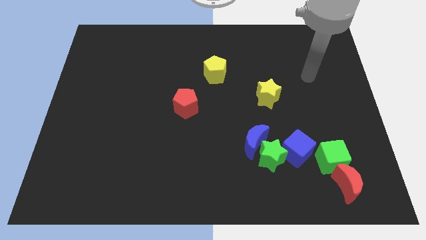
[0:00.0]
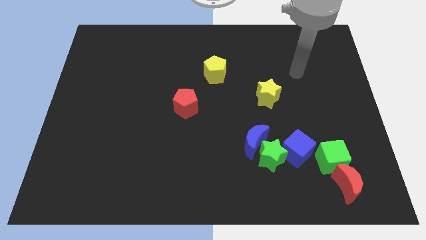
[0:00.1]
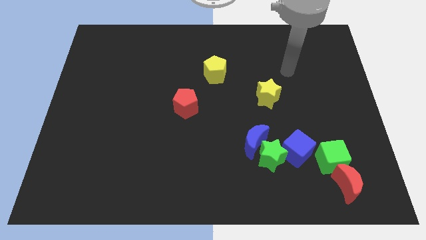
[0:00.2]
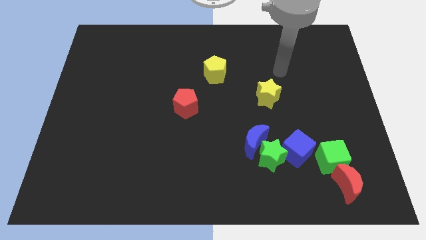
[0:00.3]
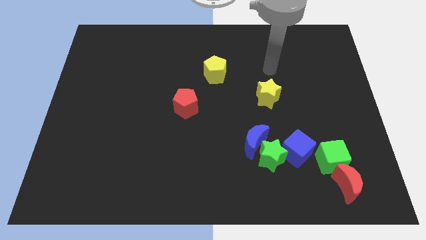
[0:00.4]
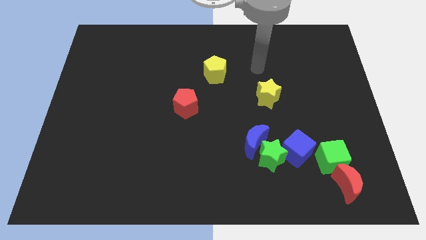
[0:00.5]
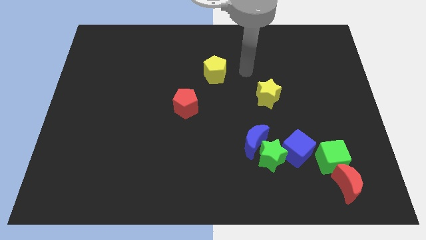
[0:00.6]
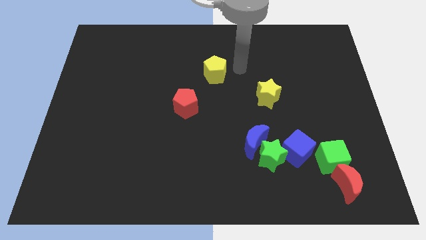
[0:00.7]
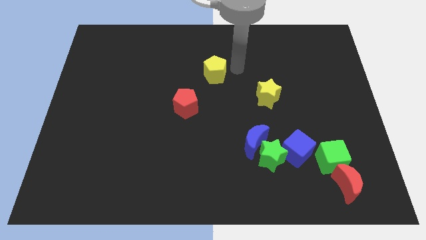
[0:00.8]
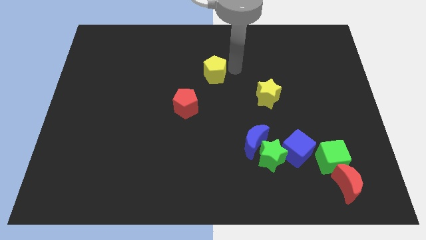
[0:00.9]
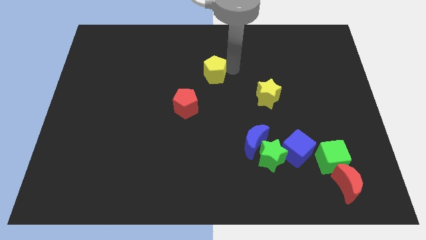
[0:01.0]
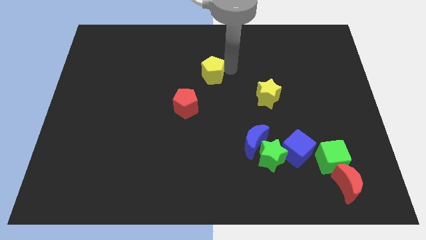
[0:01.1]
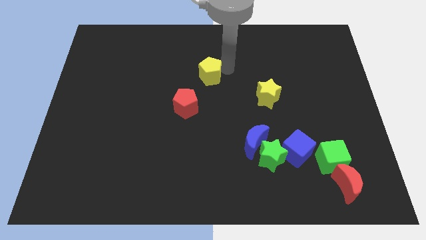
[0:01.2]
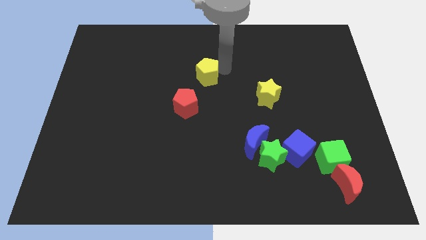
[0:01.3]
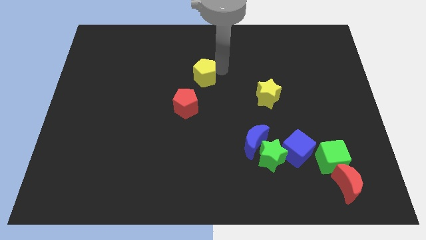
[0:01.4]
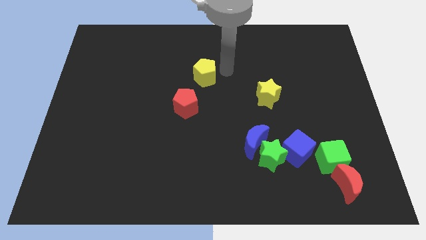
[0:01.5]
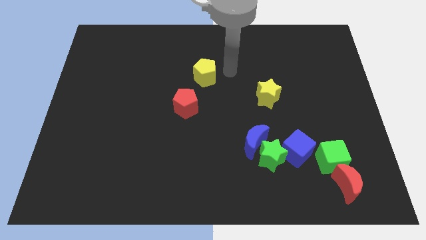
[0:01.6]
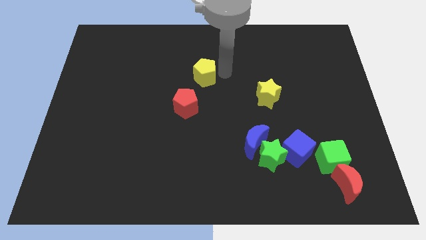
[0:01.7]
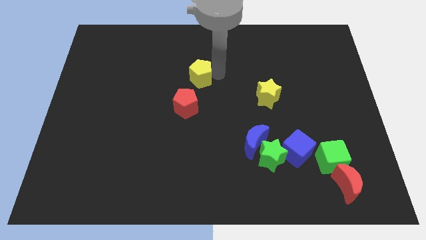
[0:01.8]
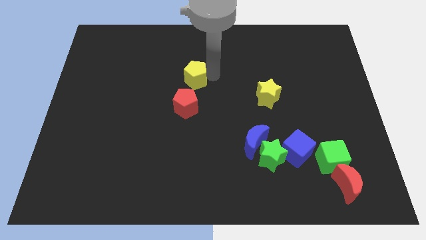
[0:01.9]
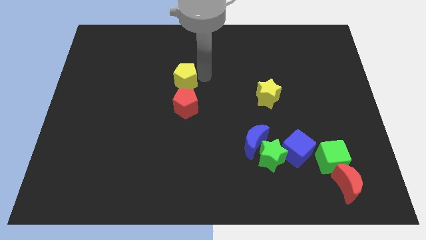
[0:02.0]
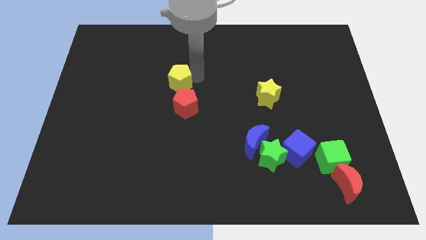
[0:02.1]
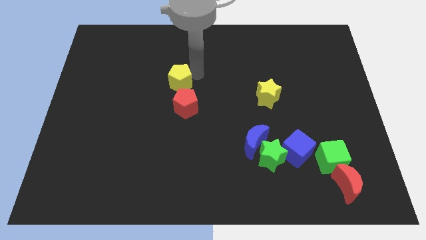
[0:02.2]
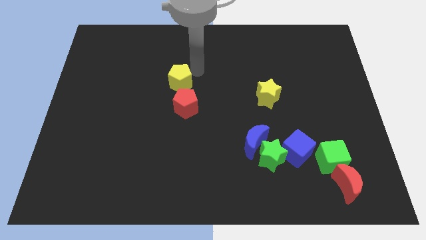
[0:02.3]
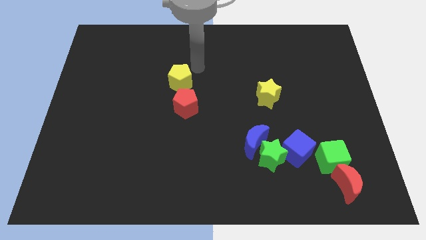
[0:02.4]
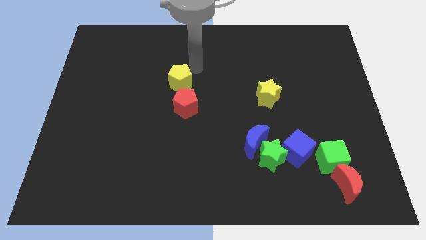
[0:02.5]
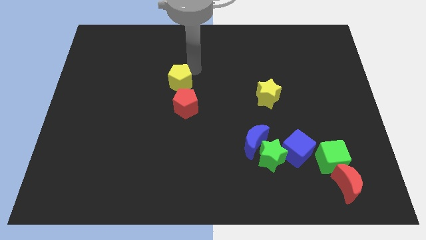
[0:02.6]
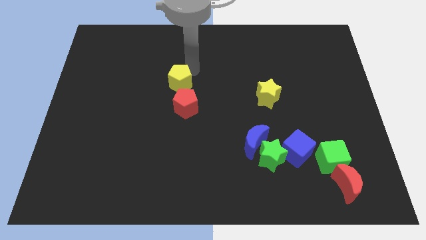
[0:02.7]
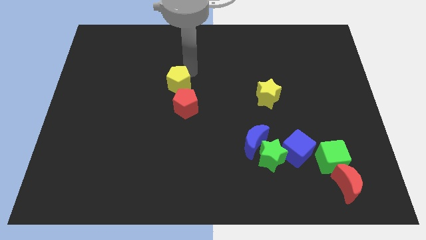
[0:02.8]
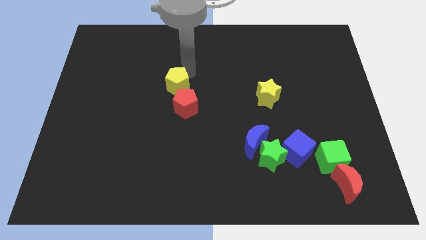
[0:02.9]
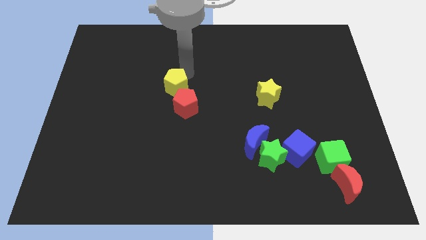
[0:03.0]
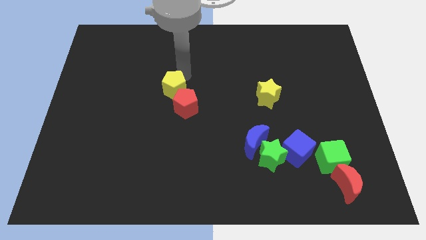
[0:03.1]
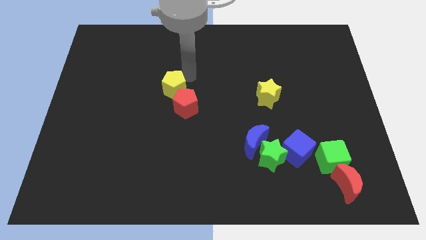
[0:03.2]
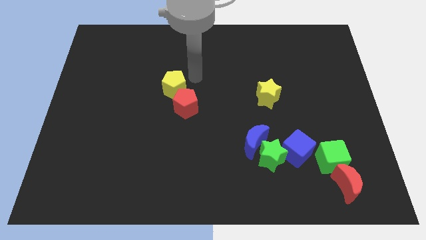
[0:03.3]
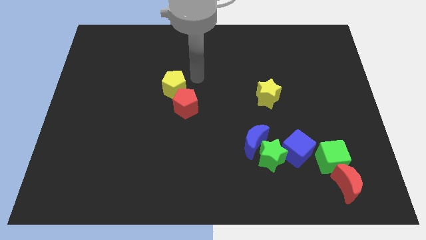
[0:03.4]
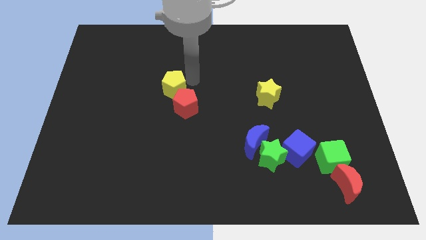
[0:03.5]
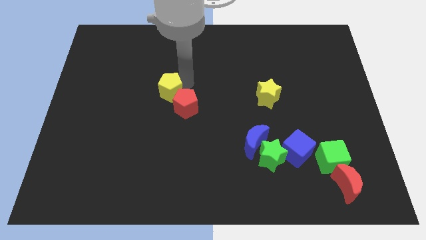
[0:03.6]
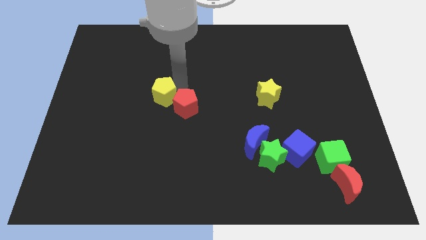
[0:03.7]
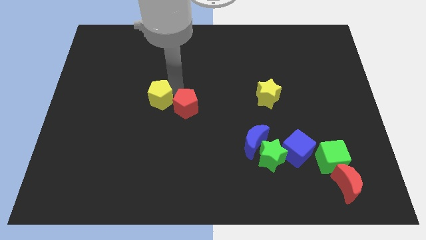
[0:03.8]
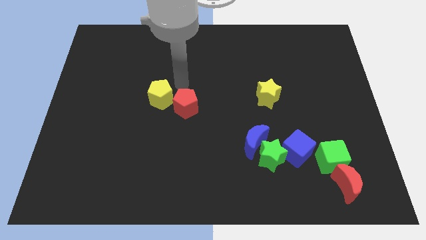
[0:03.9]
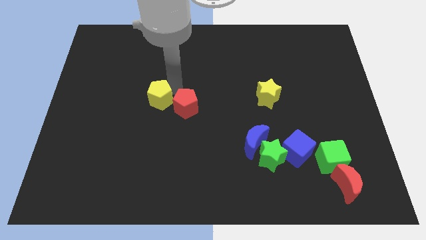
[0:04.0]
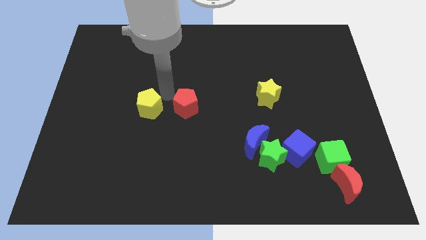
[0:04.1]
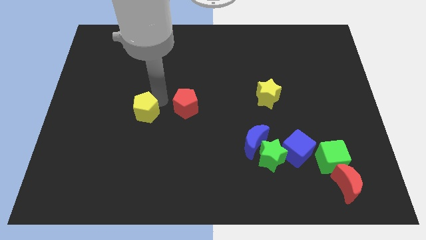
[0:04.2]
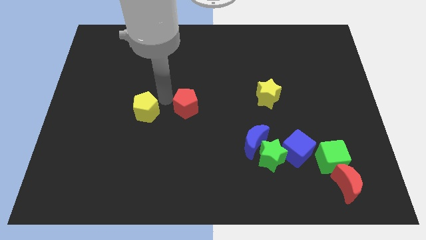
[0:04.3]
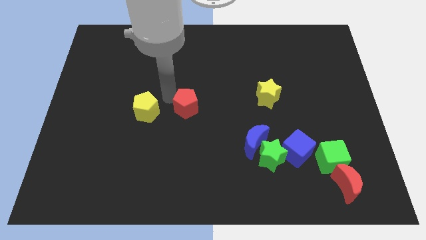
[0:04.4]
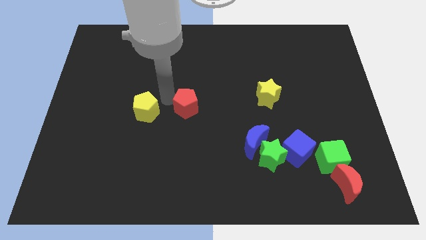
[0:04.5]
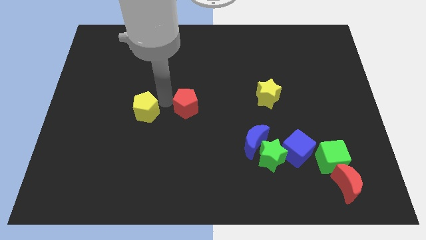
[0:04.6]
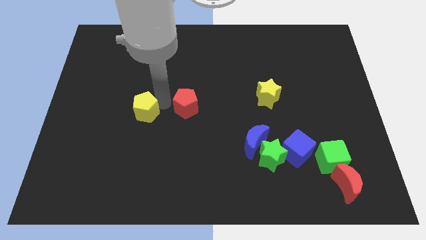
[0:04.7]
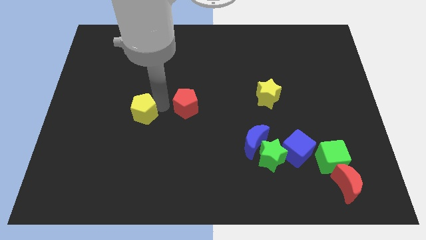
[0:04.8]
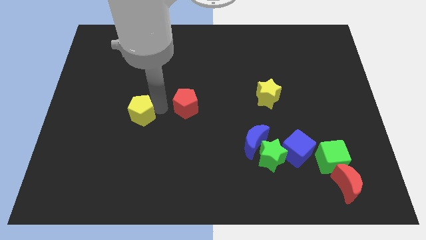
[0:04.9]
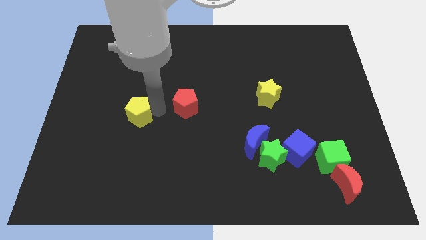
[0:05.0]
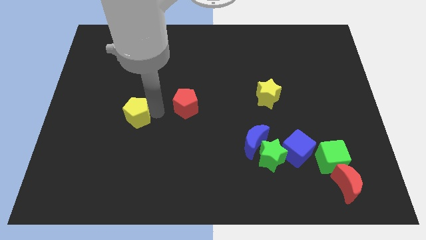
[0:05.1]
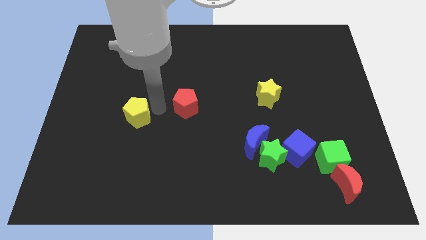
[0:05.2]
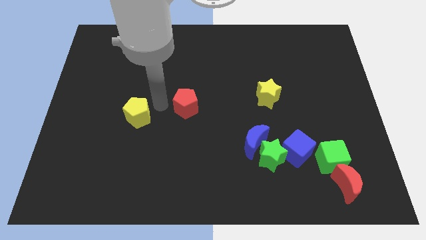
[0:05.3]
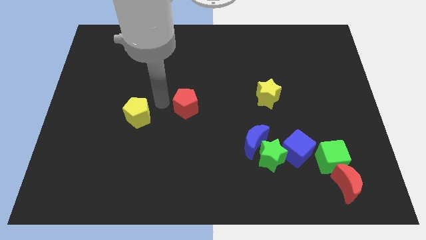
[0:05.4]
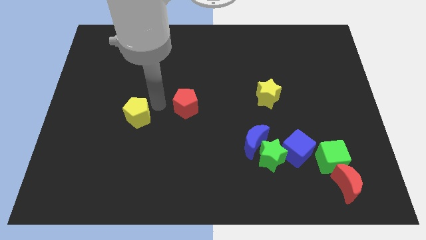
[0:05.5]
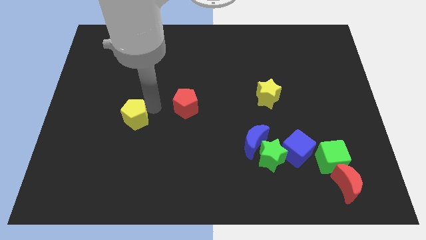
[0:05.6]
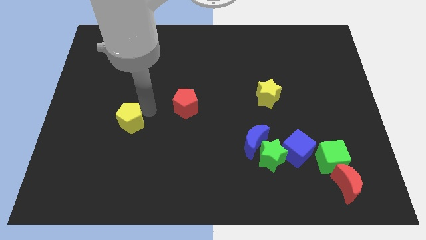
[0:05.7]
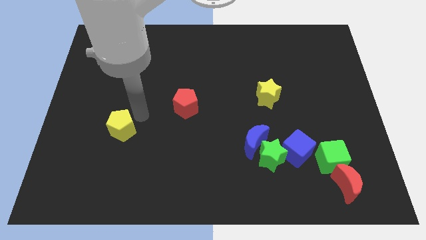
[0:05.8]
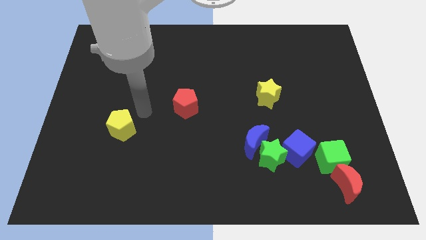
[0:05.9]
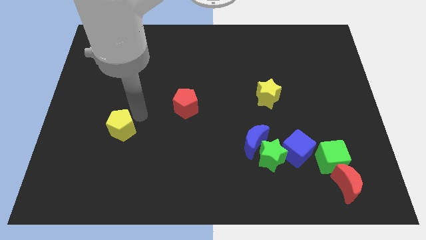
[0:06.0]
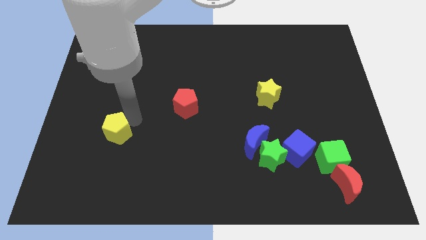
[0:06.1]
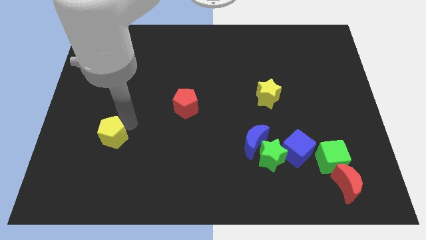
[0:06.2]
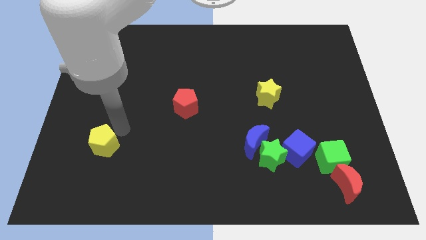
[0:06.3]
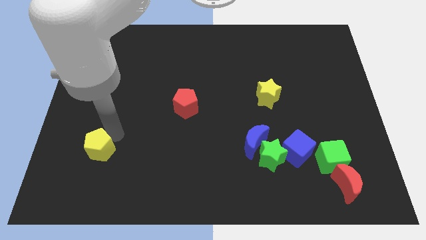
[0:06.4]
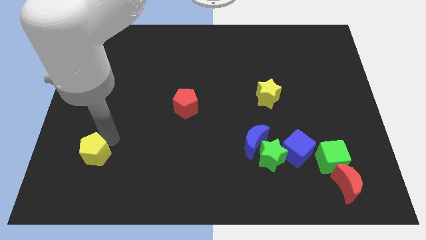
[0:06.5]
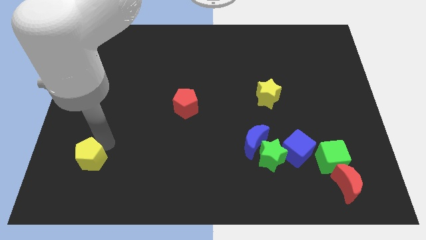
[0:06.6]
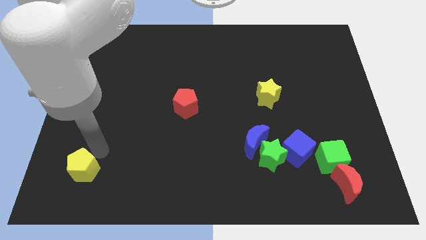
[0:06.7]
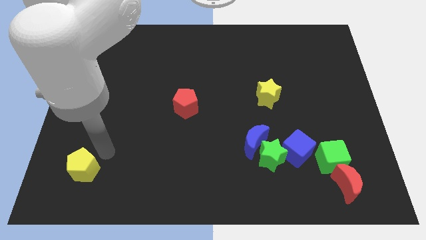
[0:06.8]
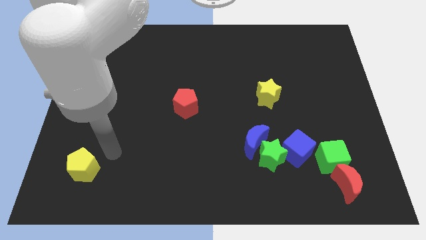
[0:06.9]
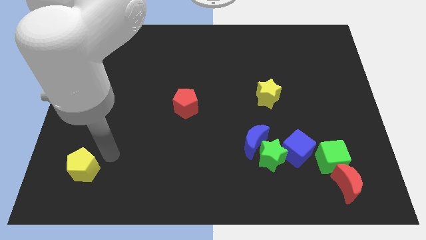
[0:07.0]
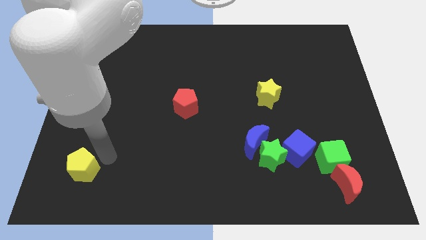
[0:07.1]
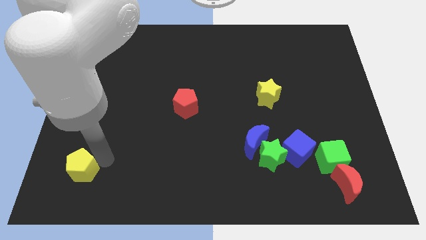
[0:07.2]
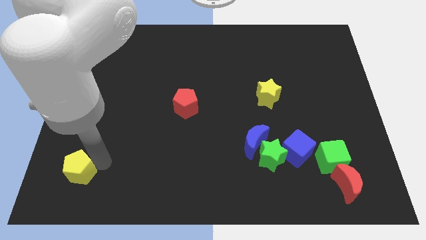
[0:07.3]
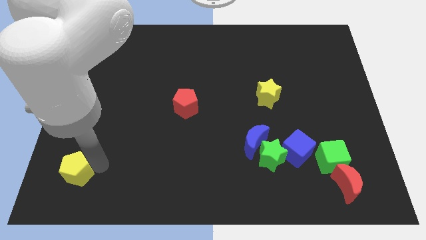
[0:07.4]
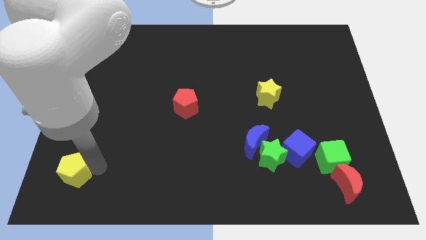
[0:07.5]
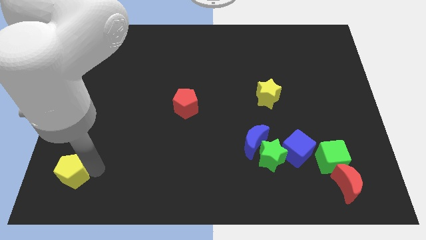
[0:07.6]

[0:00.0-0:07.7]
slide the yellow pentagon to the bottom left corner
